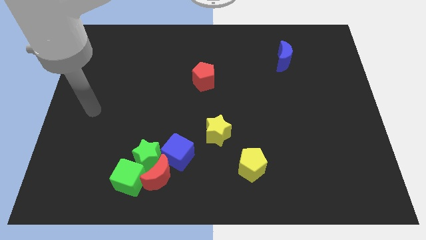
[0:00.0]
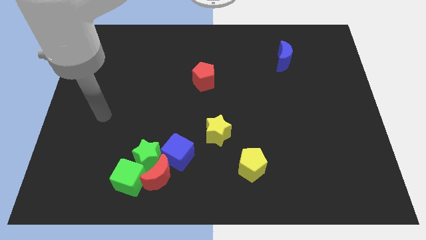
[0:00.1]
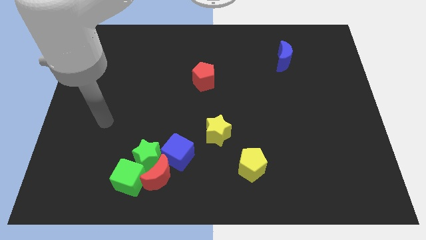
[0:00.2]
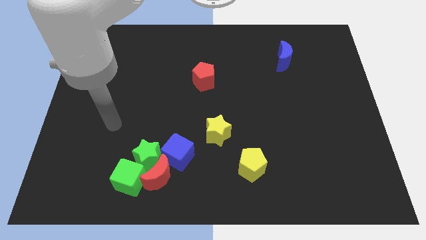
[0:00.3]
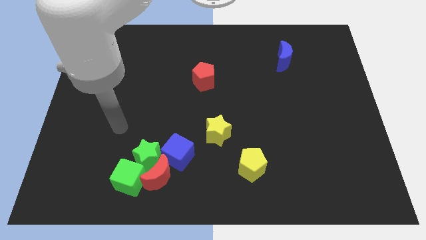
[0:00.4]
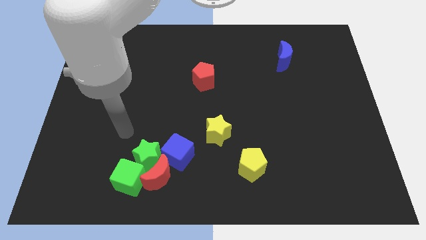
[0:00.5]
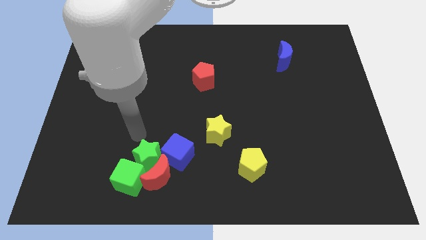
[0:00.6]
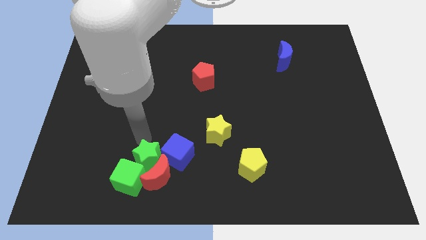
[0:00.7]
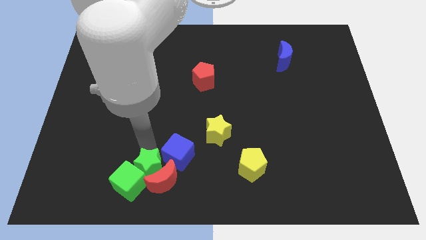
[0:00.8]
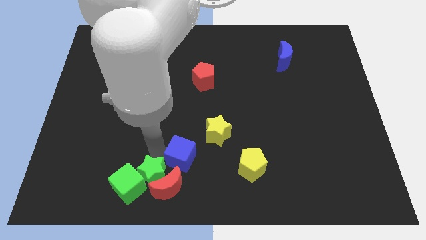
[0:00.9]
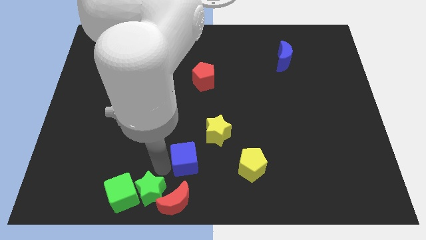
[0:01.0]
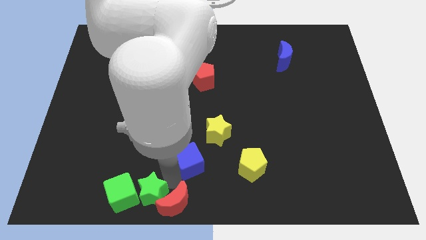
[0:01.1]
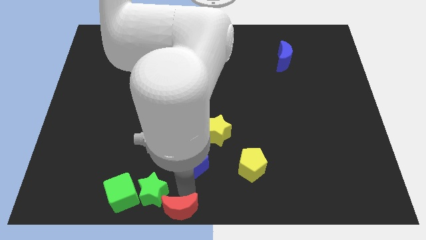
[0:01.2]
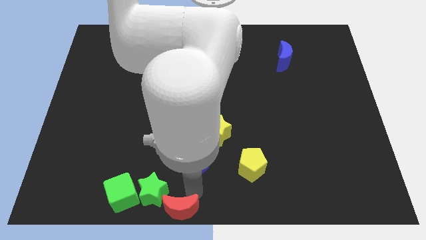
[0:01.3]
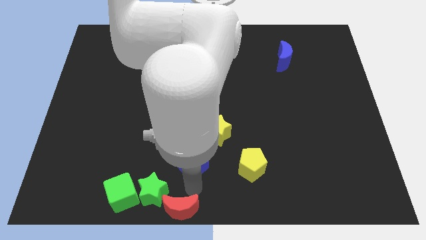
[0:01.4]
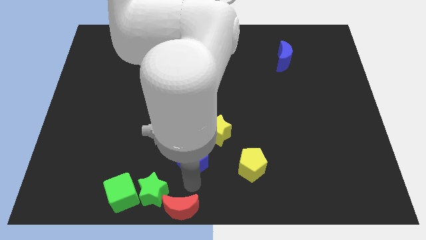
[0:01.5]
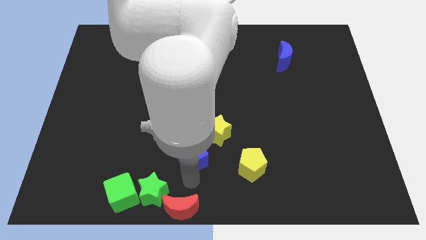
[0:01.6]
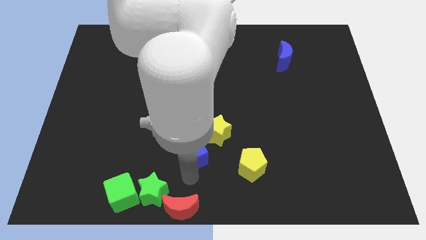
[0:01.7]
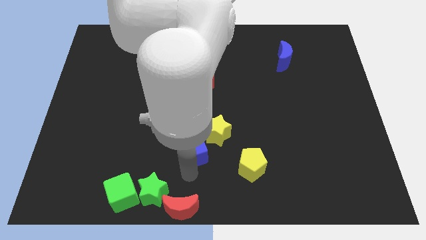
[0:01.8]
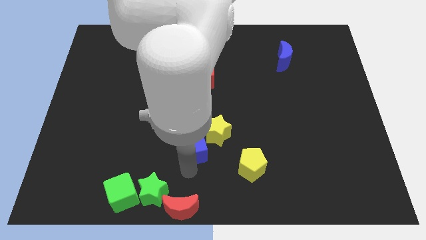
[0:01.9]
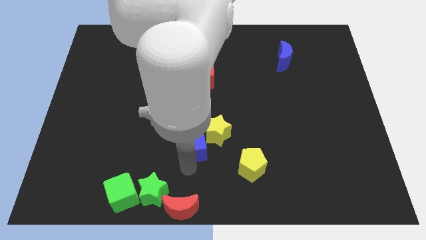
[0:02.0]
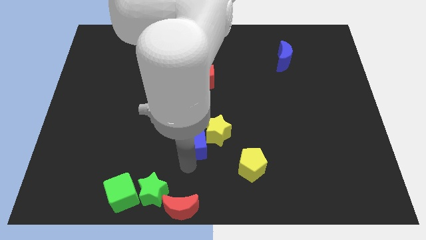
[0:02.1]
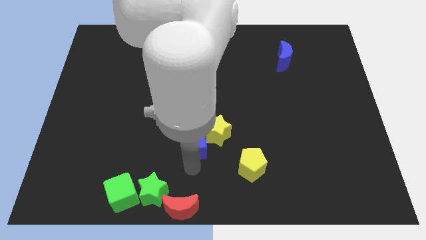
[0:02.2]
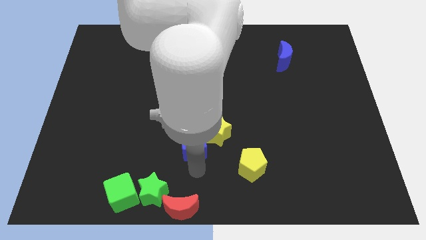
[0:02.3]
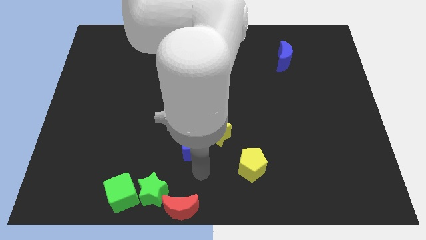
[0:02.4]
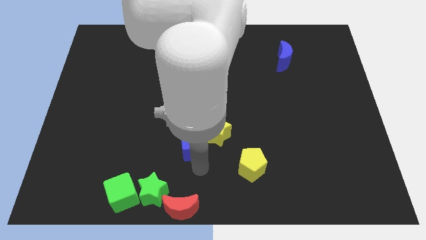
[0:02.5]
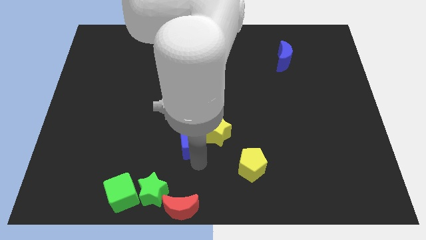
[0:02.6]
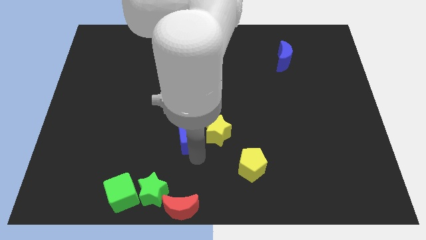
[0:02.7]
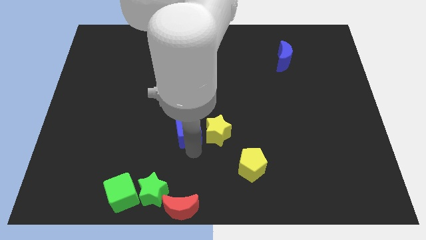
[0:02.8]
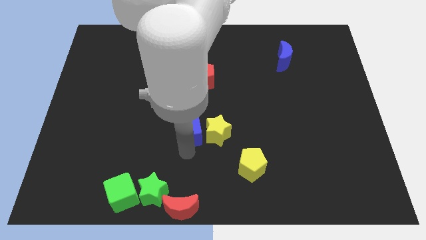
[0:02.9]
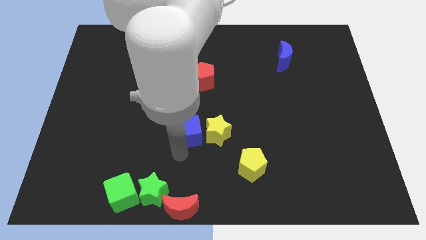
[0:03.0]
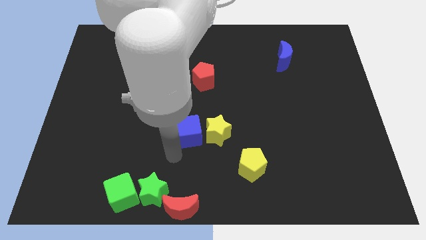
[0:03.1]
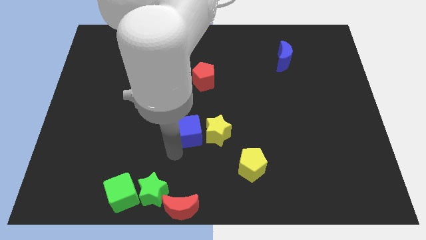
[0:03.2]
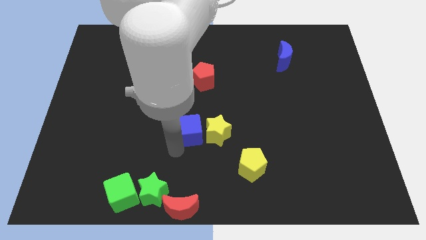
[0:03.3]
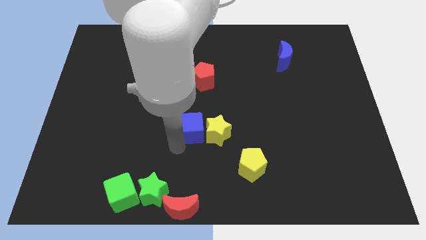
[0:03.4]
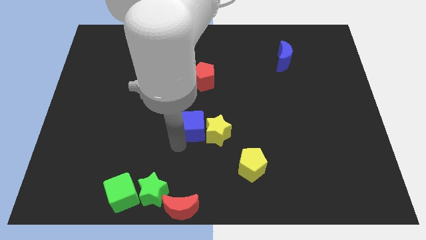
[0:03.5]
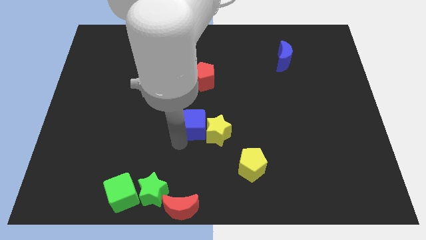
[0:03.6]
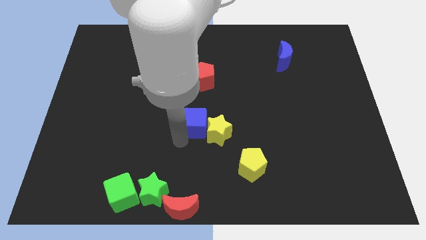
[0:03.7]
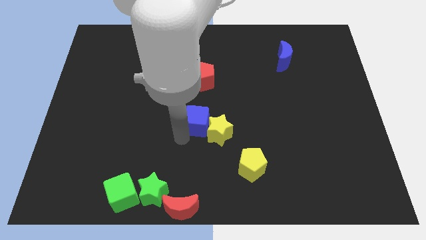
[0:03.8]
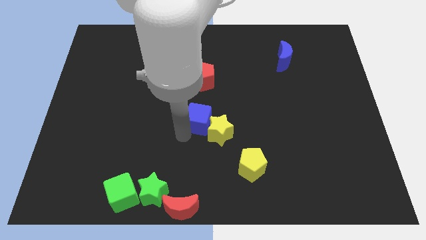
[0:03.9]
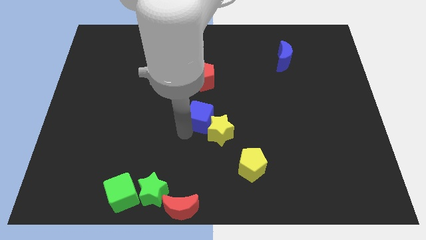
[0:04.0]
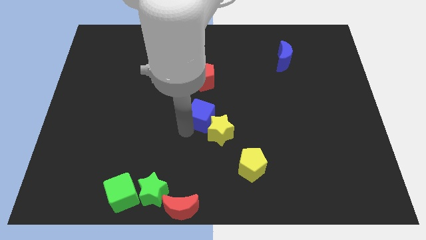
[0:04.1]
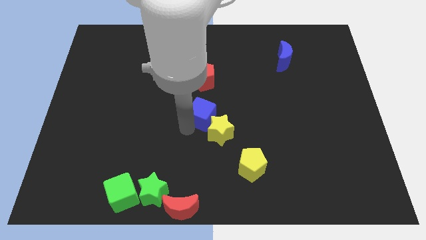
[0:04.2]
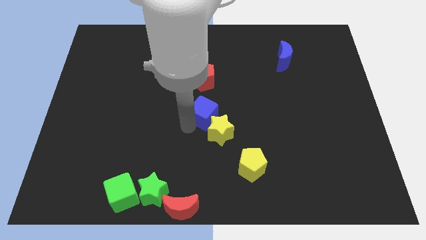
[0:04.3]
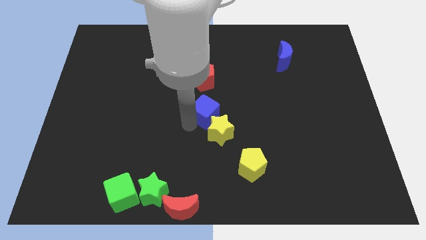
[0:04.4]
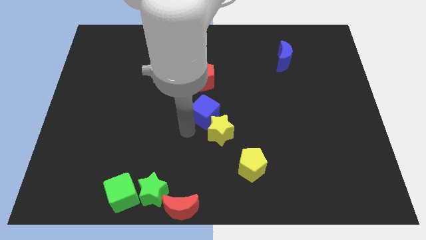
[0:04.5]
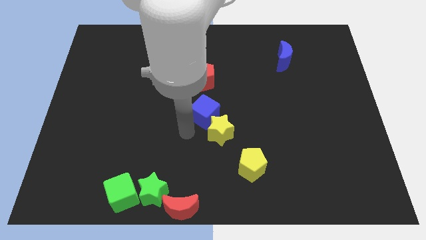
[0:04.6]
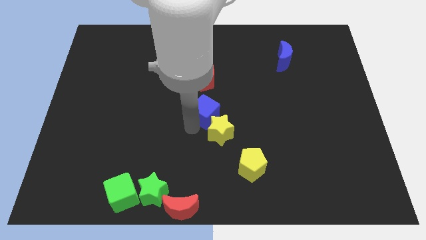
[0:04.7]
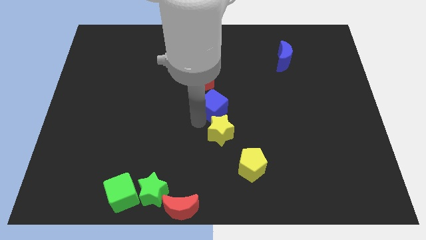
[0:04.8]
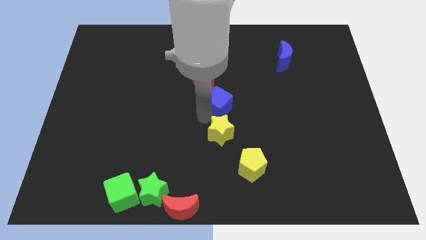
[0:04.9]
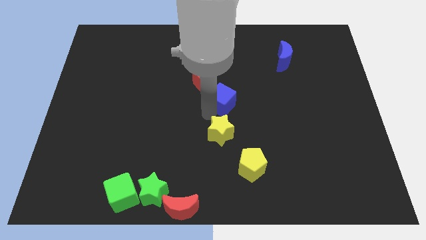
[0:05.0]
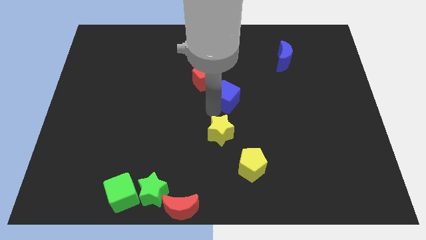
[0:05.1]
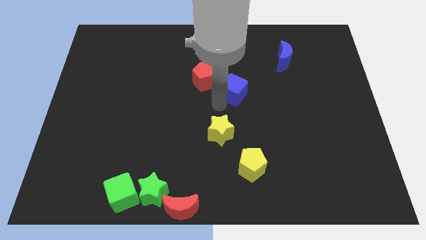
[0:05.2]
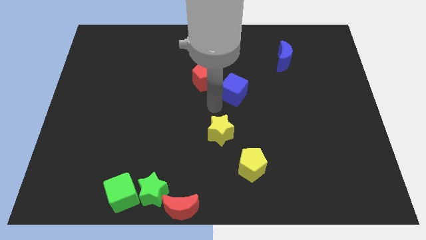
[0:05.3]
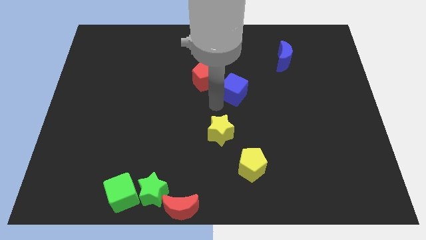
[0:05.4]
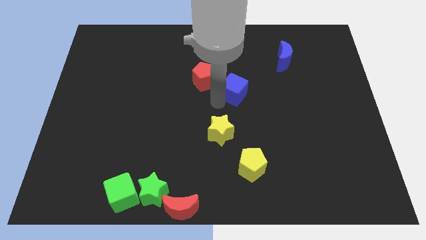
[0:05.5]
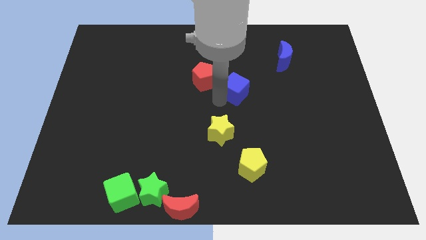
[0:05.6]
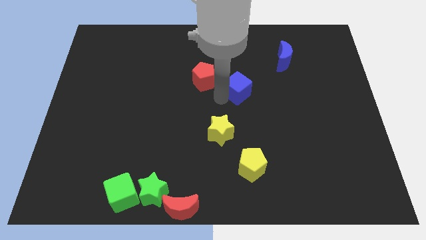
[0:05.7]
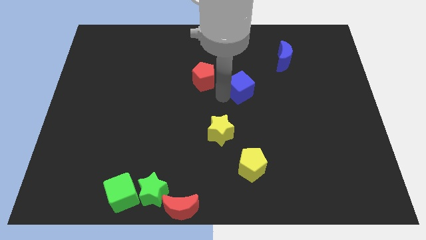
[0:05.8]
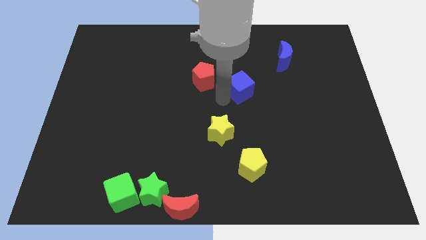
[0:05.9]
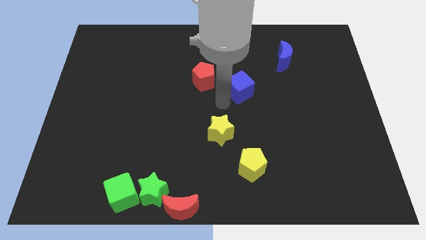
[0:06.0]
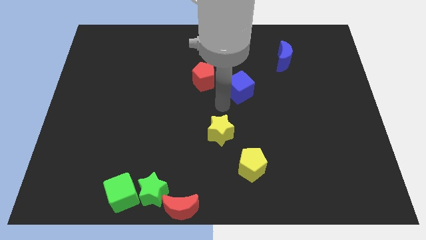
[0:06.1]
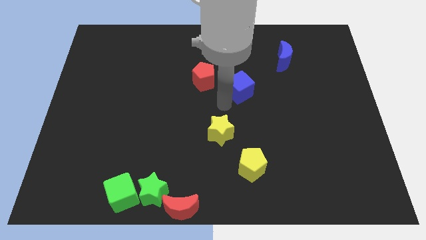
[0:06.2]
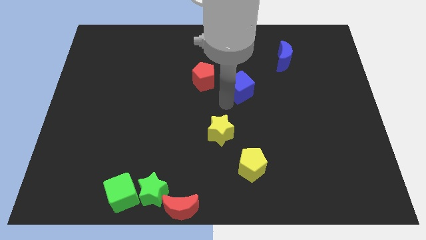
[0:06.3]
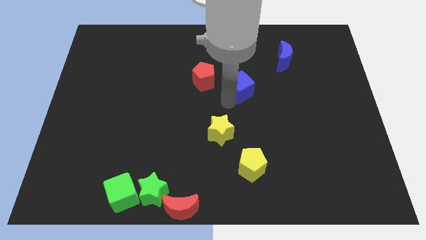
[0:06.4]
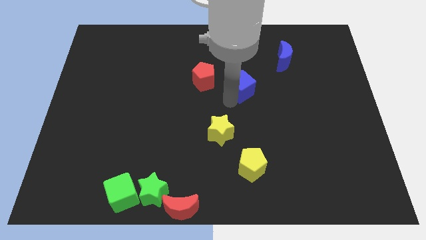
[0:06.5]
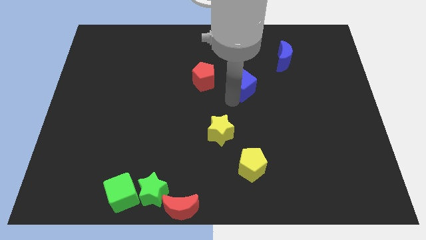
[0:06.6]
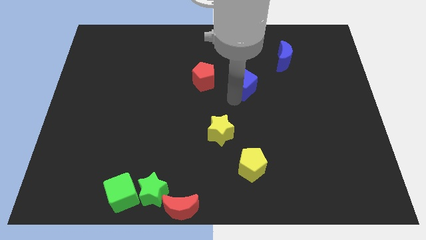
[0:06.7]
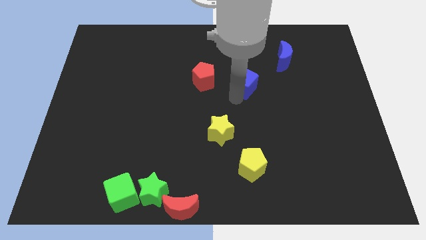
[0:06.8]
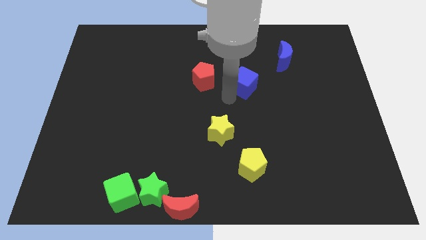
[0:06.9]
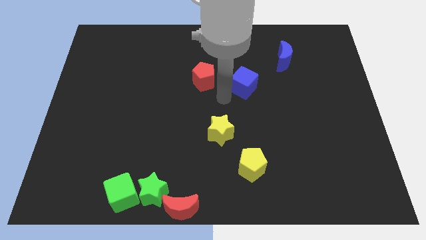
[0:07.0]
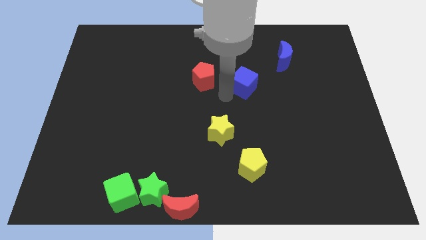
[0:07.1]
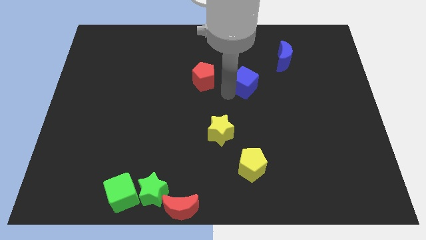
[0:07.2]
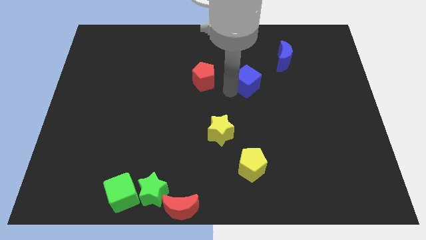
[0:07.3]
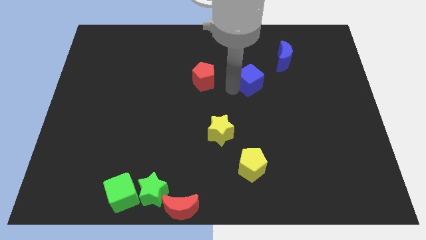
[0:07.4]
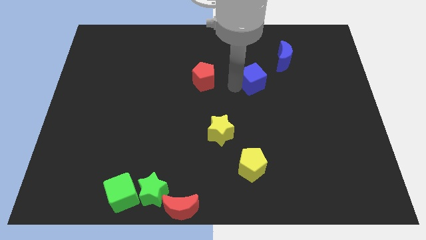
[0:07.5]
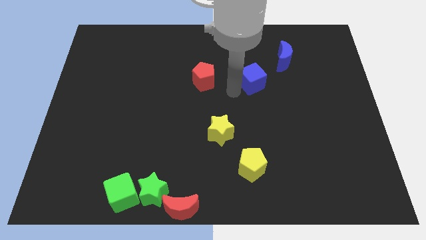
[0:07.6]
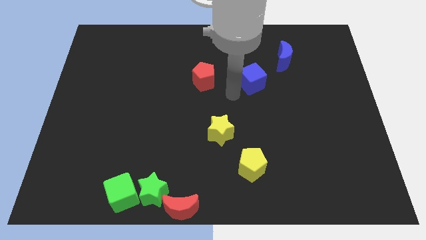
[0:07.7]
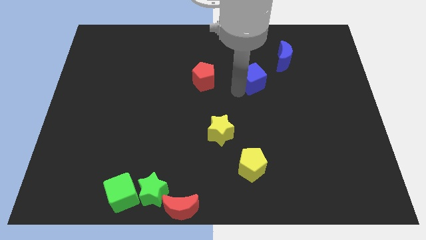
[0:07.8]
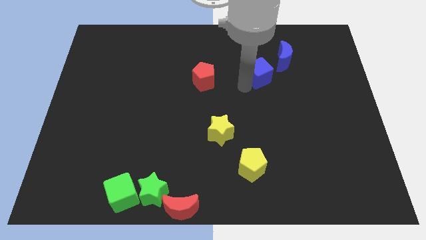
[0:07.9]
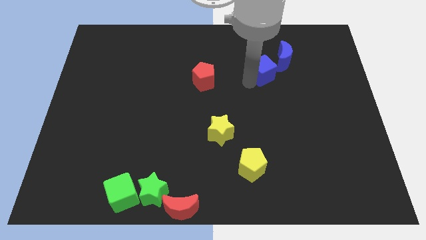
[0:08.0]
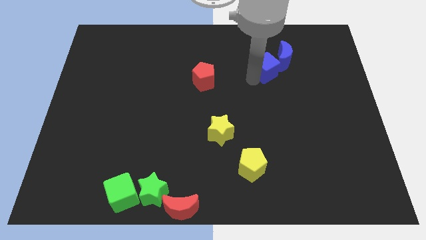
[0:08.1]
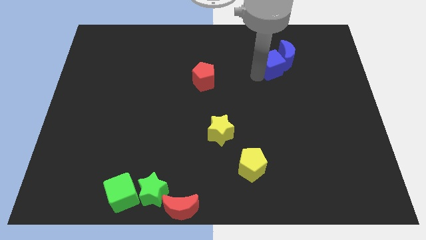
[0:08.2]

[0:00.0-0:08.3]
slide the blue cube towards the blue moon
